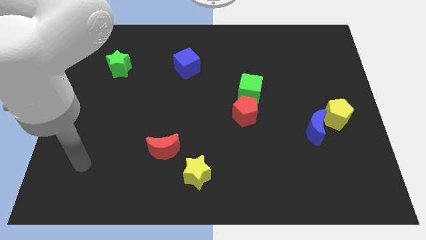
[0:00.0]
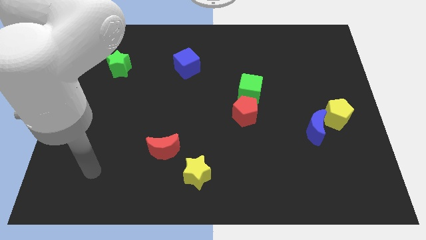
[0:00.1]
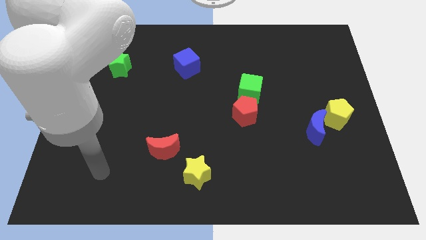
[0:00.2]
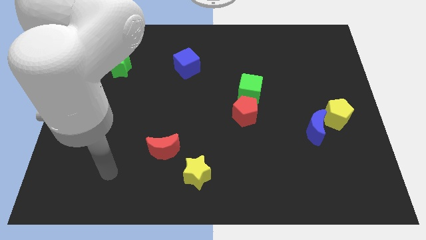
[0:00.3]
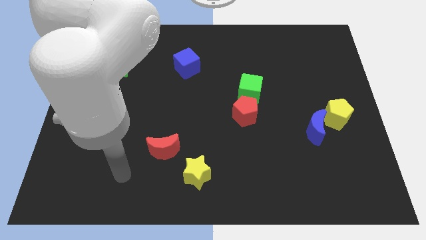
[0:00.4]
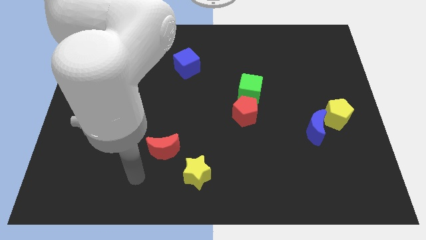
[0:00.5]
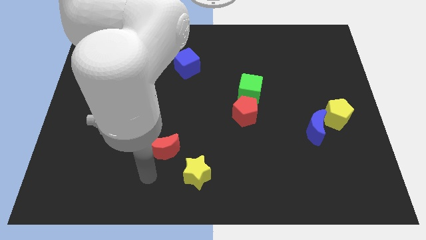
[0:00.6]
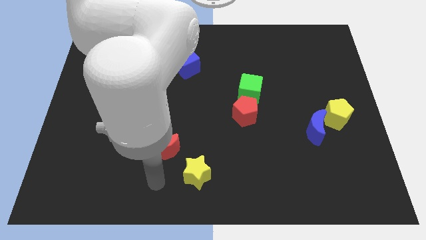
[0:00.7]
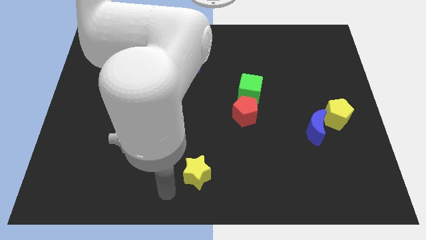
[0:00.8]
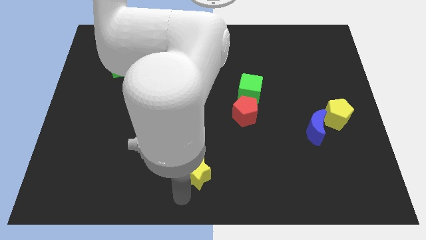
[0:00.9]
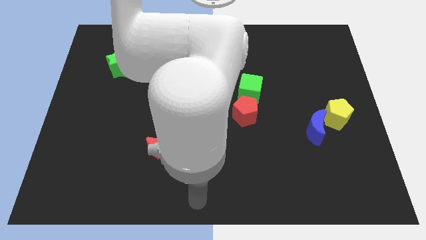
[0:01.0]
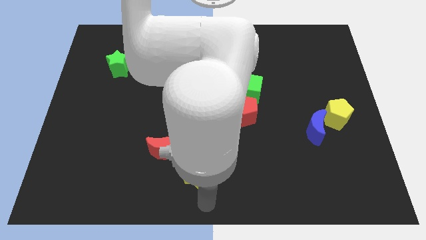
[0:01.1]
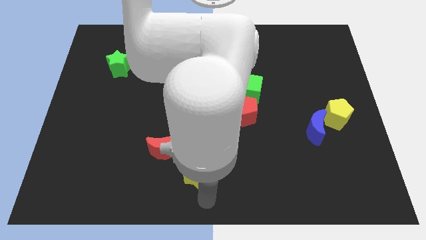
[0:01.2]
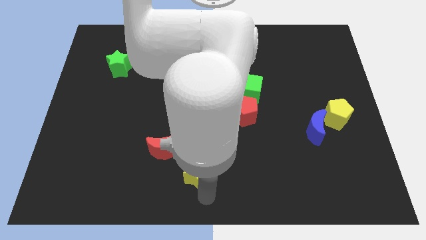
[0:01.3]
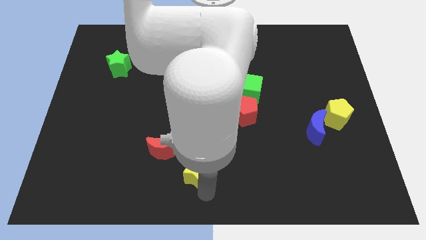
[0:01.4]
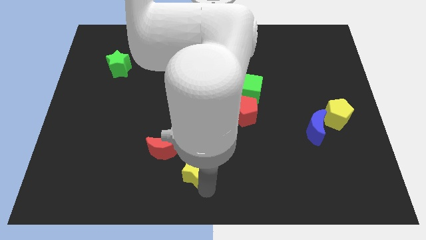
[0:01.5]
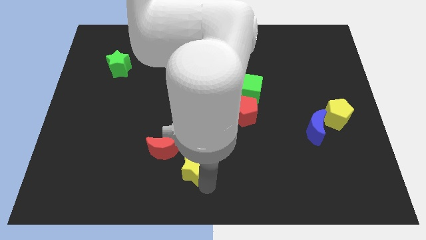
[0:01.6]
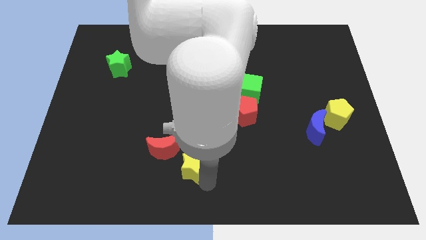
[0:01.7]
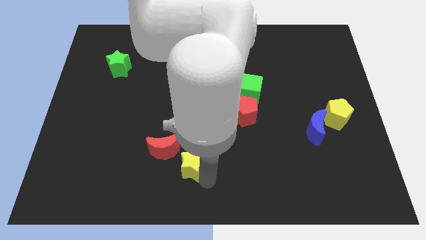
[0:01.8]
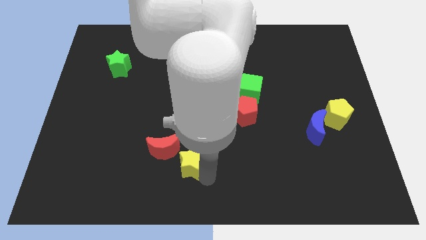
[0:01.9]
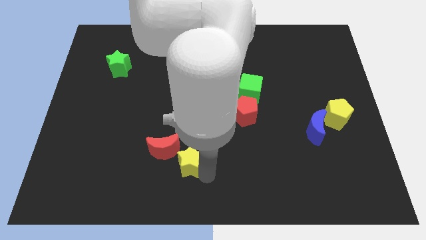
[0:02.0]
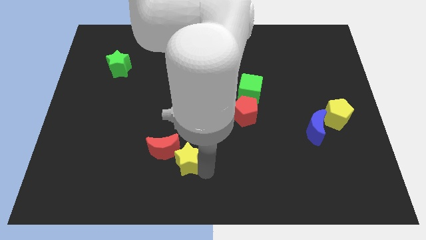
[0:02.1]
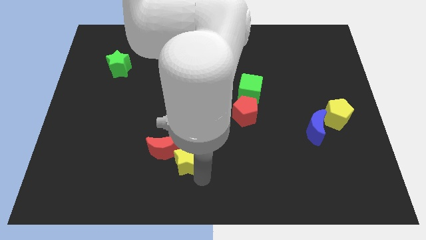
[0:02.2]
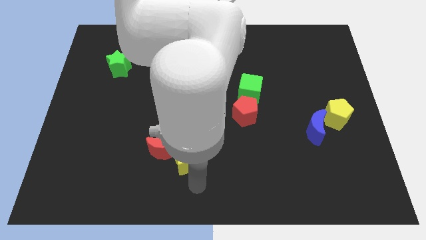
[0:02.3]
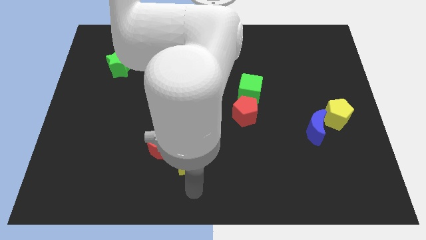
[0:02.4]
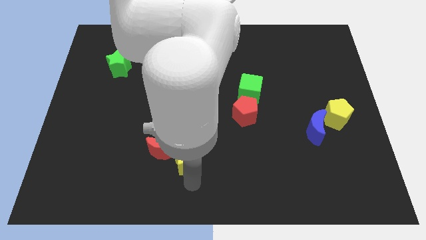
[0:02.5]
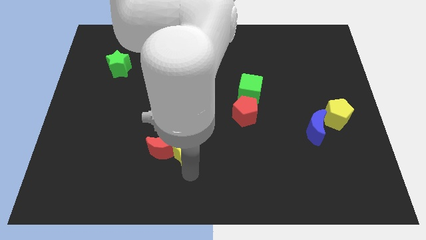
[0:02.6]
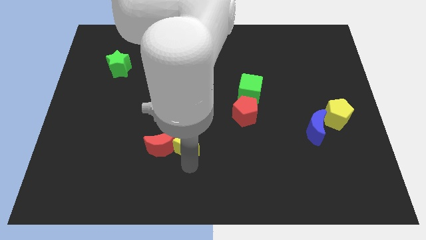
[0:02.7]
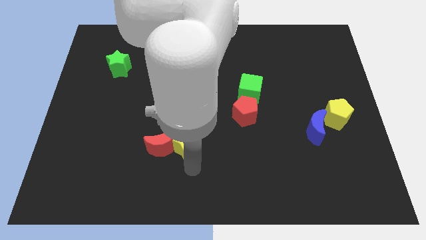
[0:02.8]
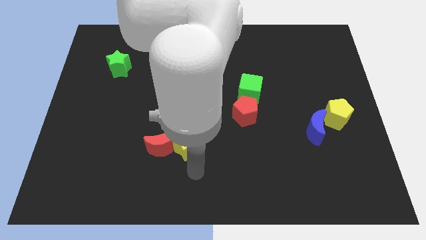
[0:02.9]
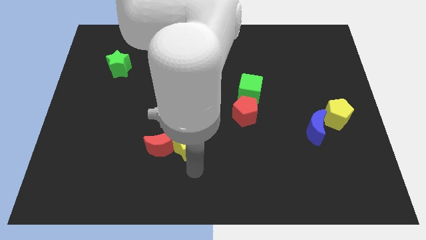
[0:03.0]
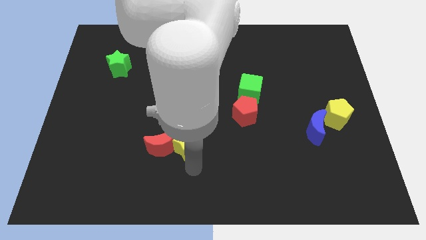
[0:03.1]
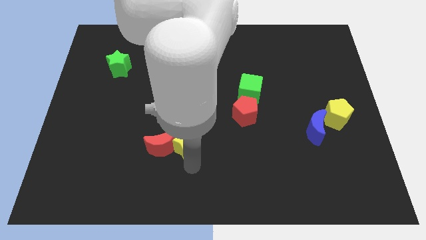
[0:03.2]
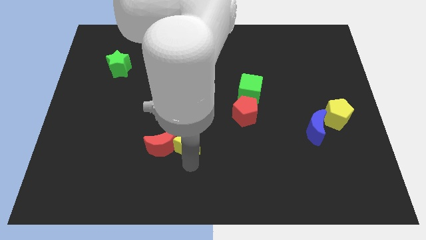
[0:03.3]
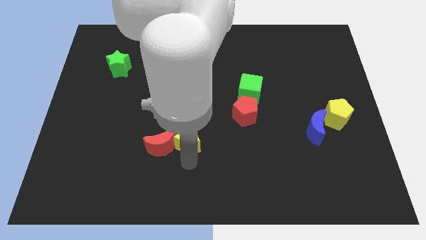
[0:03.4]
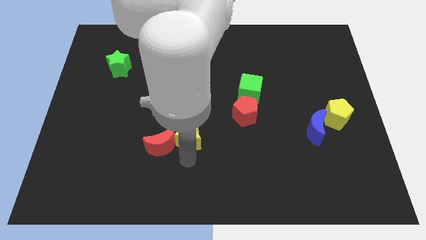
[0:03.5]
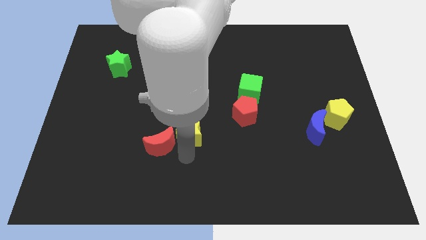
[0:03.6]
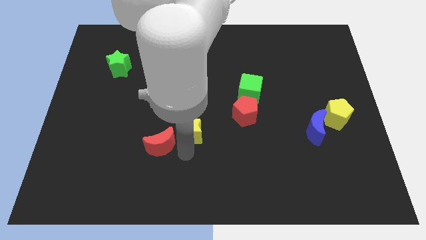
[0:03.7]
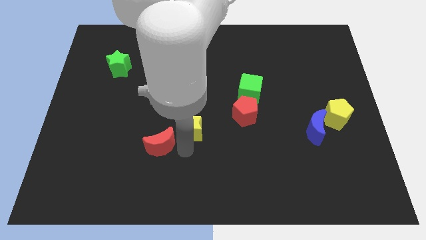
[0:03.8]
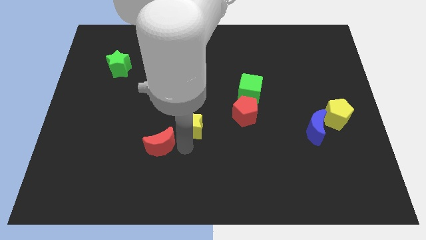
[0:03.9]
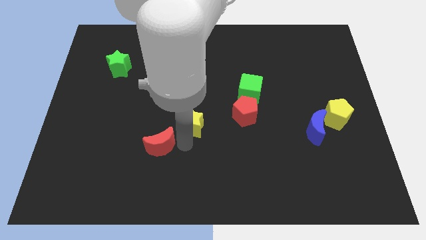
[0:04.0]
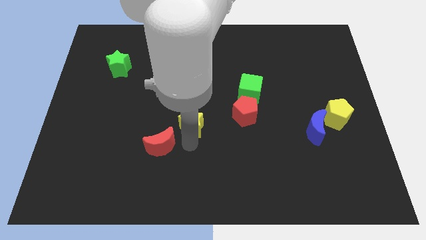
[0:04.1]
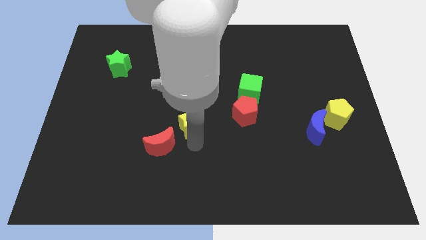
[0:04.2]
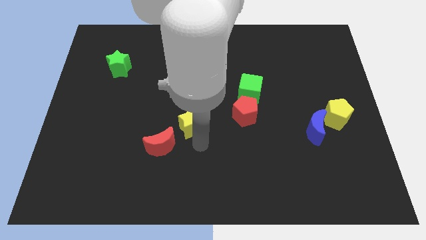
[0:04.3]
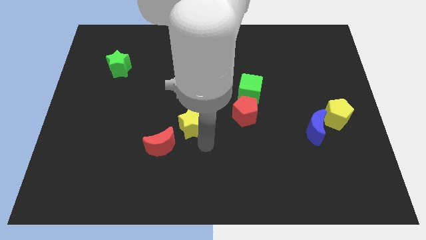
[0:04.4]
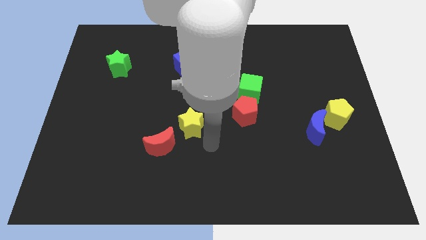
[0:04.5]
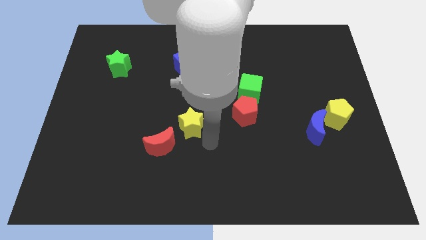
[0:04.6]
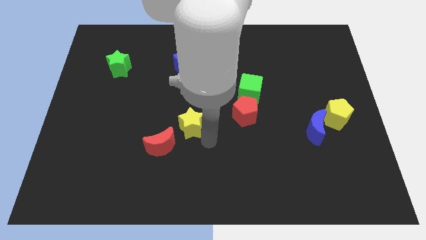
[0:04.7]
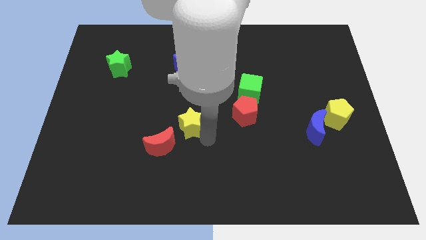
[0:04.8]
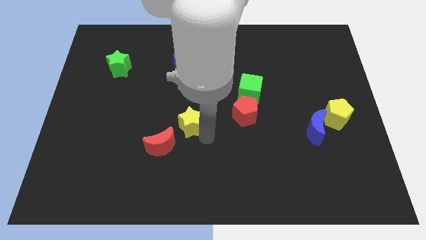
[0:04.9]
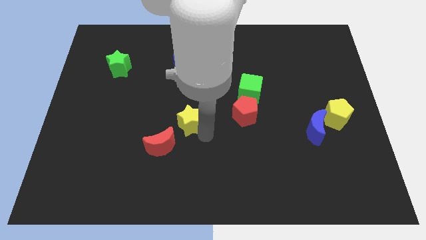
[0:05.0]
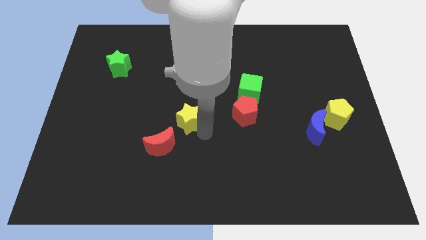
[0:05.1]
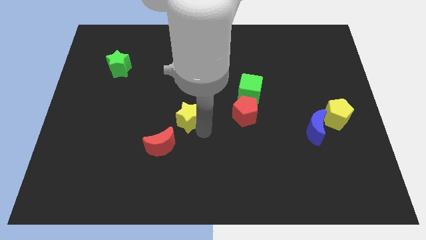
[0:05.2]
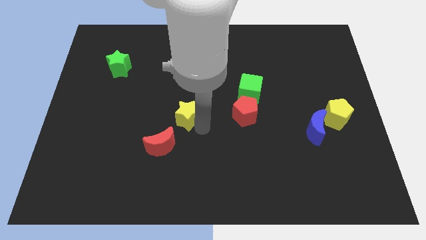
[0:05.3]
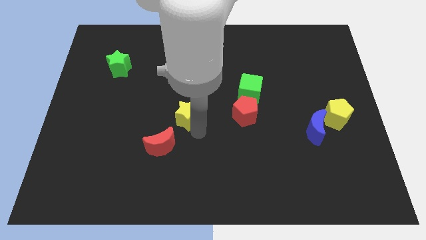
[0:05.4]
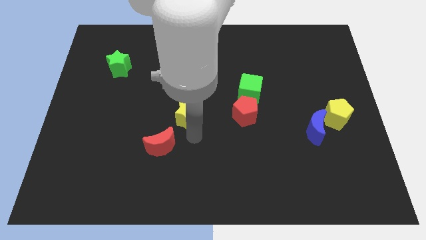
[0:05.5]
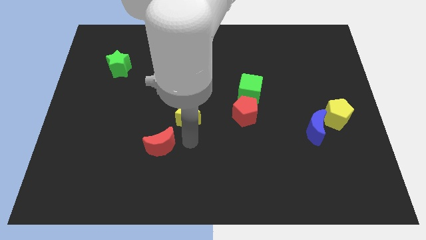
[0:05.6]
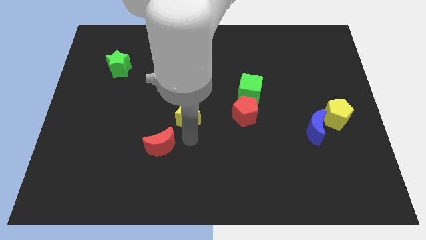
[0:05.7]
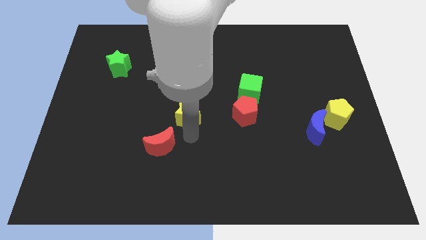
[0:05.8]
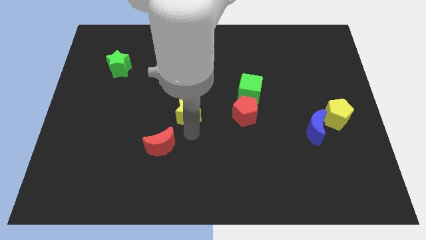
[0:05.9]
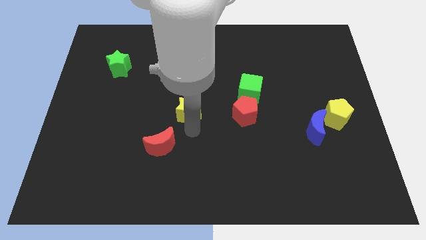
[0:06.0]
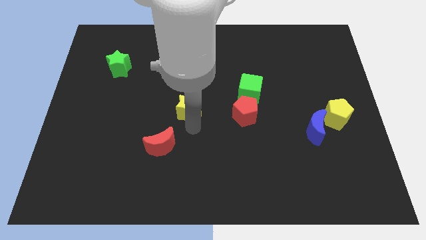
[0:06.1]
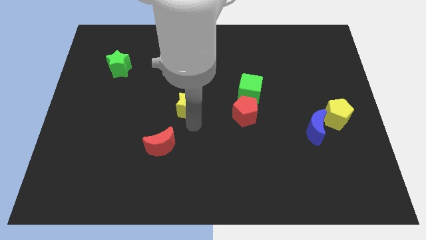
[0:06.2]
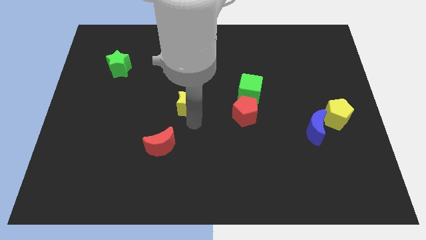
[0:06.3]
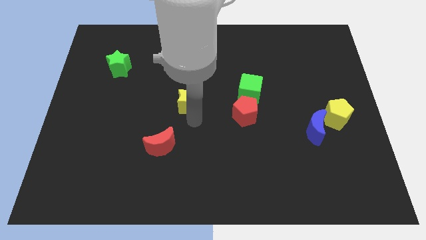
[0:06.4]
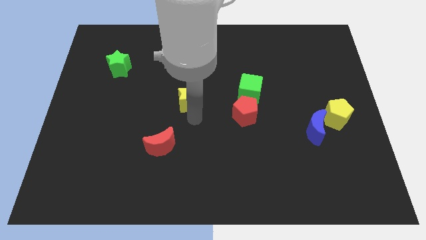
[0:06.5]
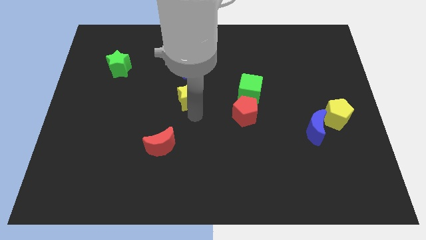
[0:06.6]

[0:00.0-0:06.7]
move the yellow star up

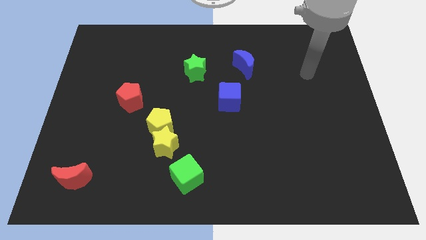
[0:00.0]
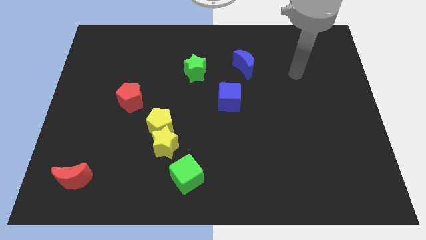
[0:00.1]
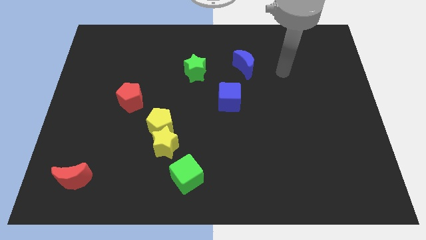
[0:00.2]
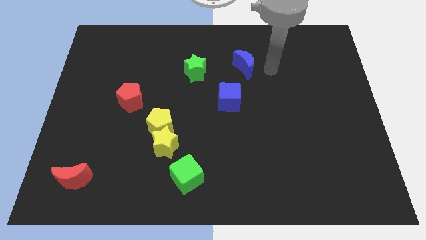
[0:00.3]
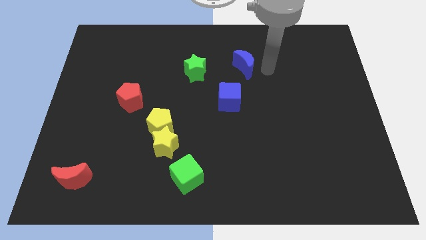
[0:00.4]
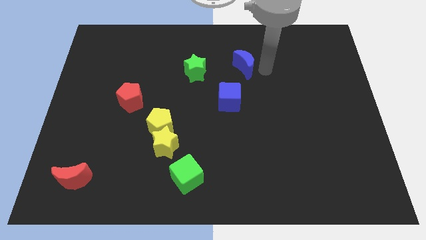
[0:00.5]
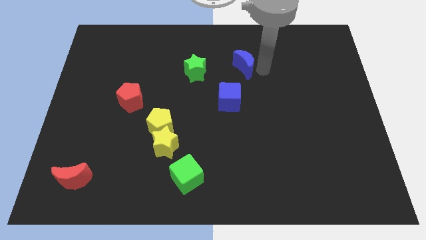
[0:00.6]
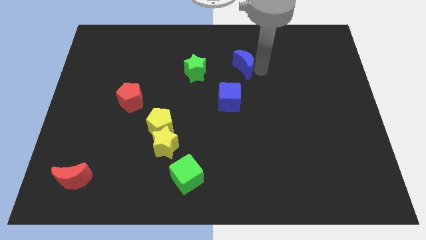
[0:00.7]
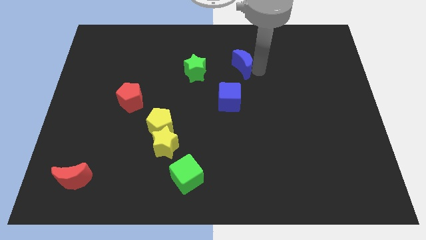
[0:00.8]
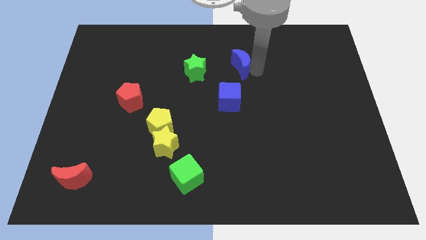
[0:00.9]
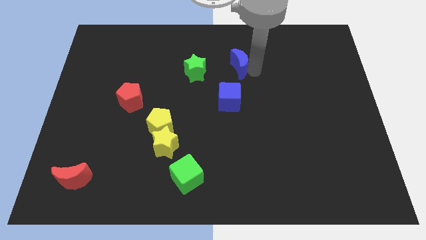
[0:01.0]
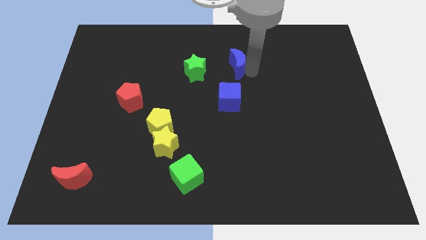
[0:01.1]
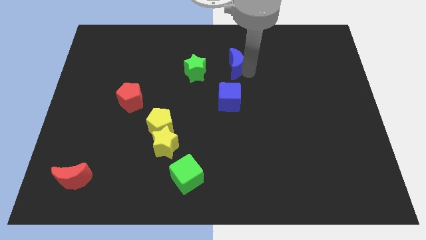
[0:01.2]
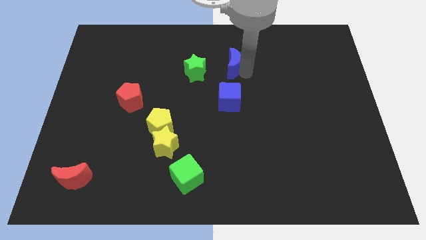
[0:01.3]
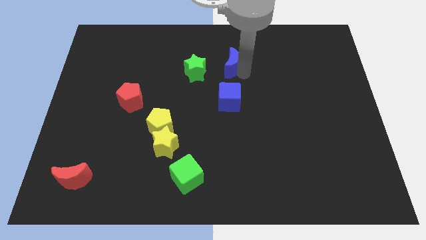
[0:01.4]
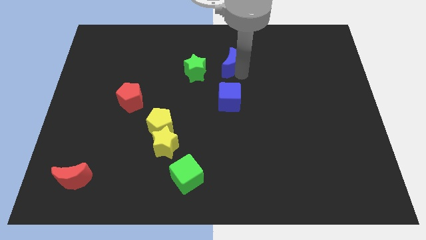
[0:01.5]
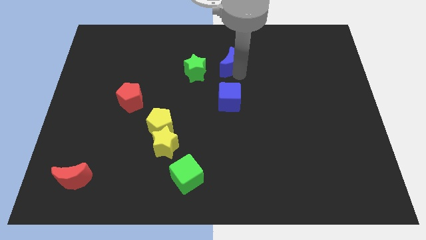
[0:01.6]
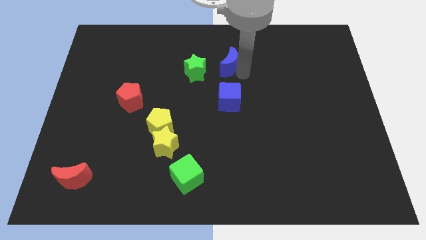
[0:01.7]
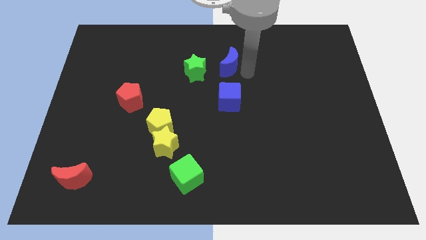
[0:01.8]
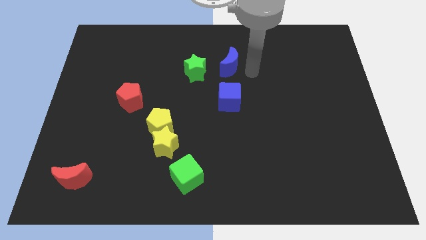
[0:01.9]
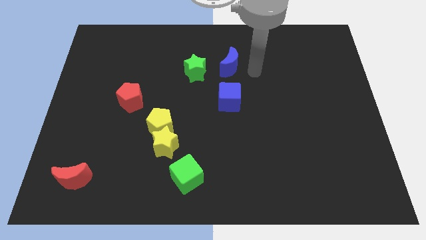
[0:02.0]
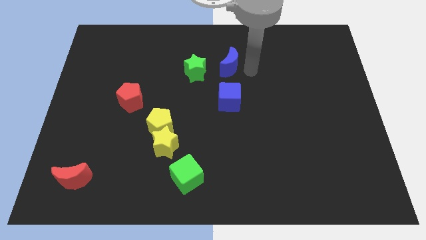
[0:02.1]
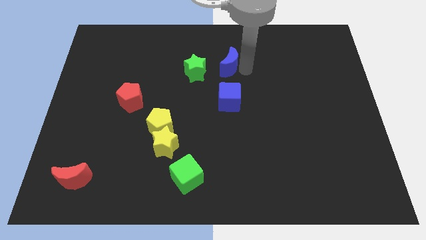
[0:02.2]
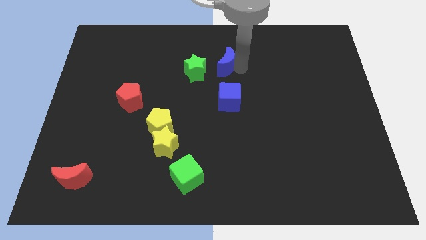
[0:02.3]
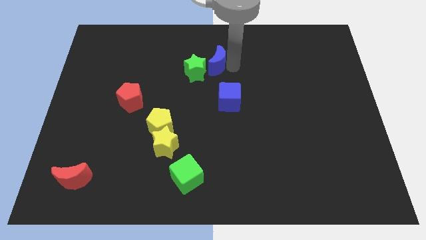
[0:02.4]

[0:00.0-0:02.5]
push the blue moon somewhat to the left
